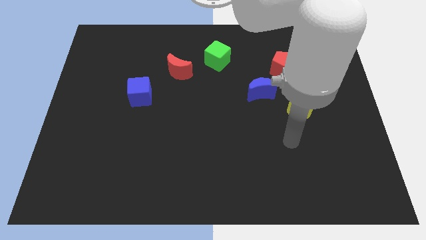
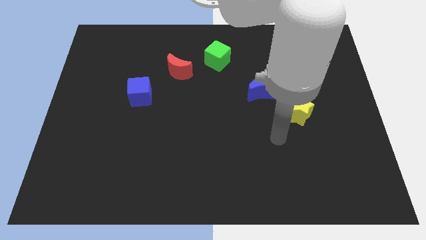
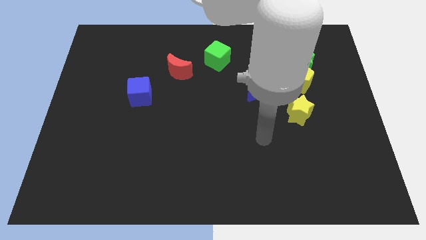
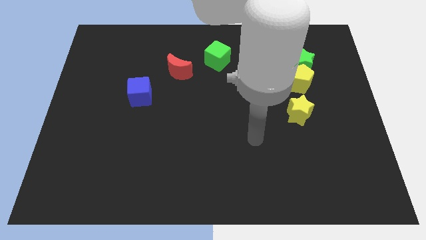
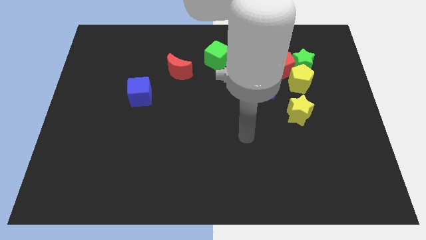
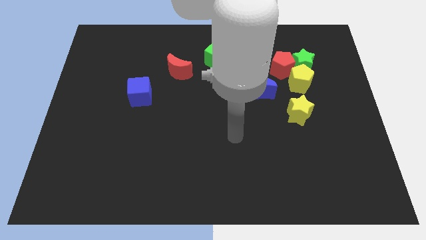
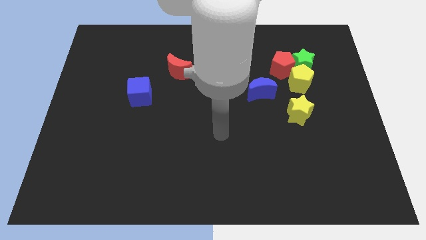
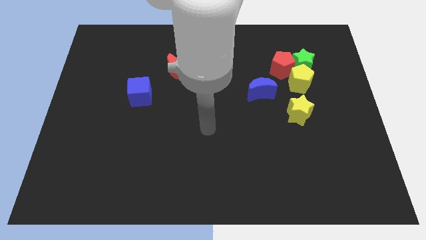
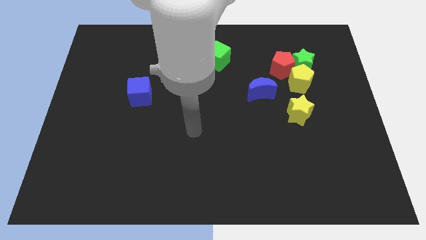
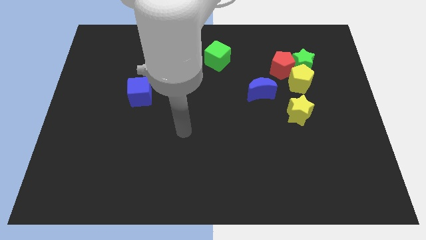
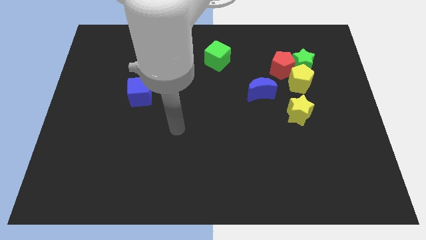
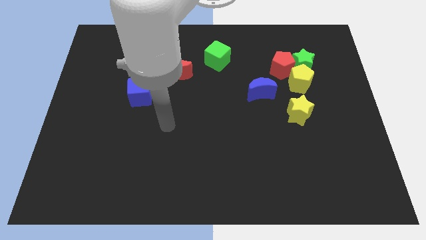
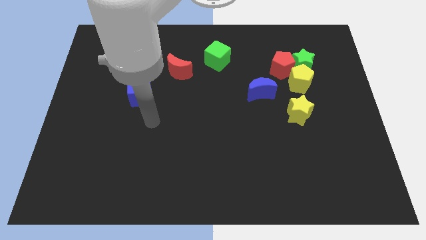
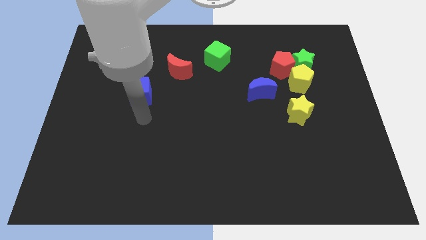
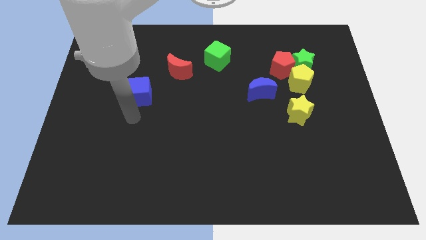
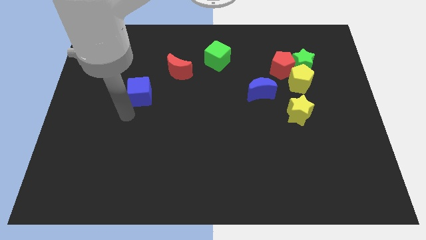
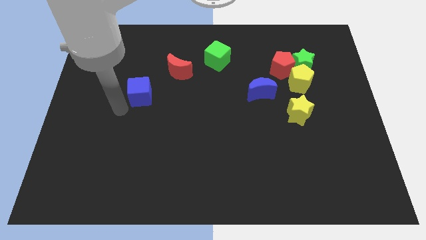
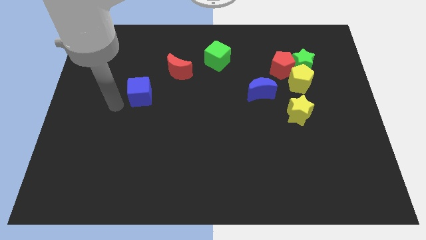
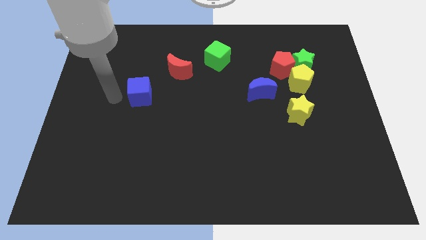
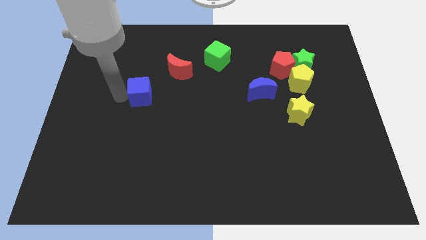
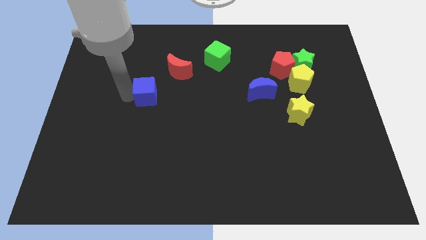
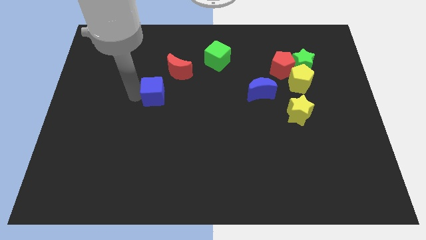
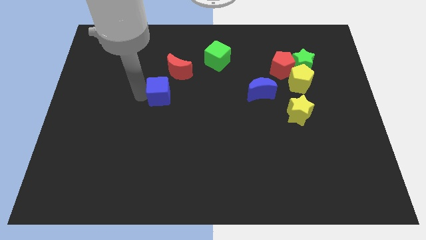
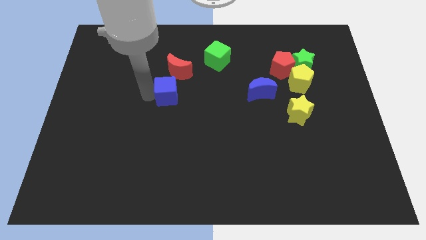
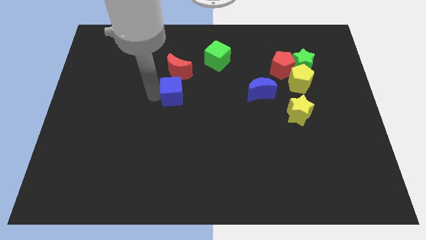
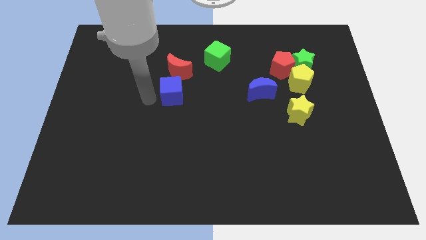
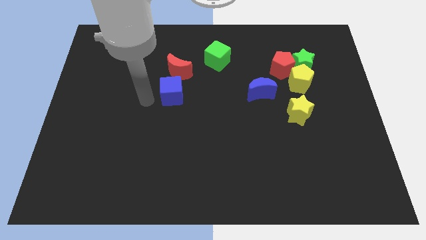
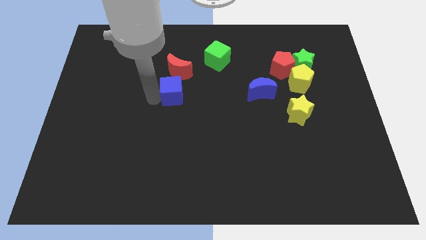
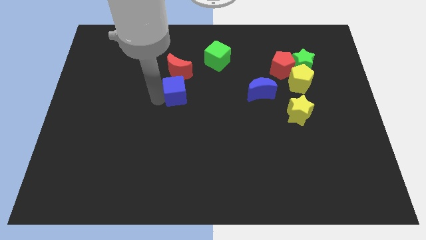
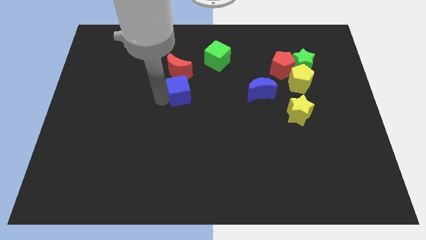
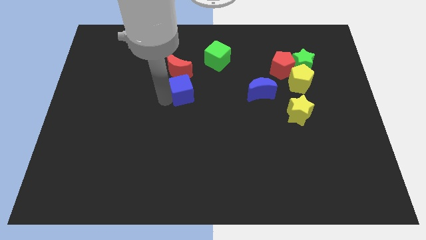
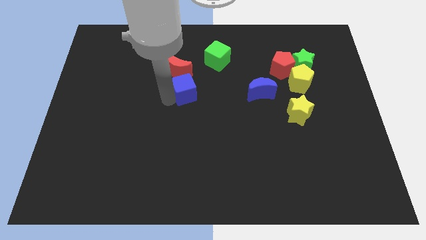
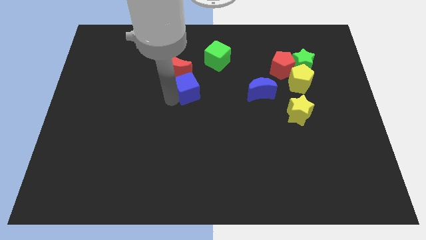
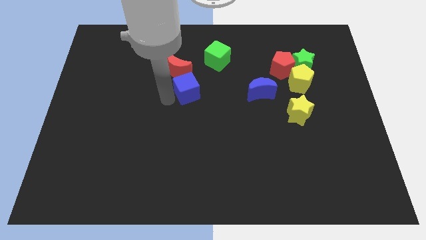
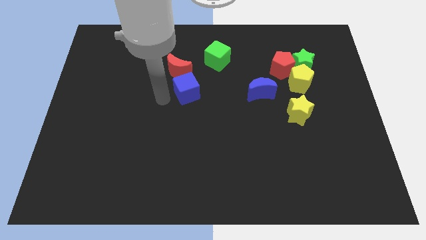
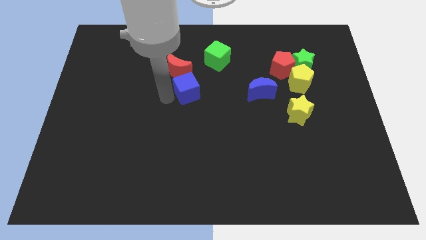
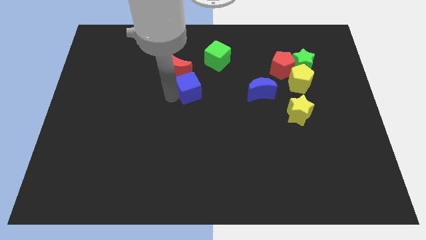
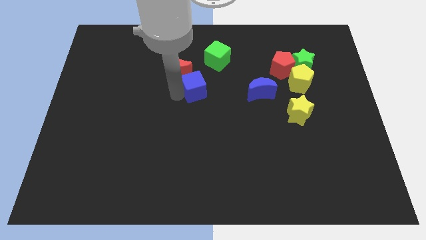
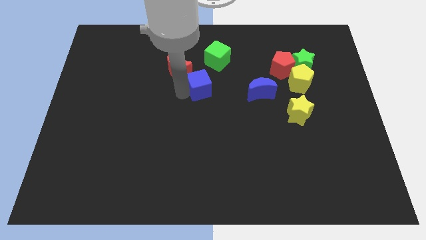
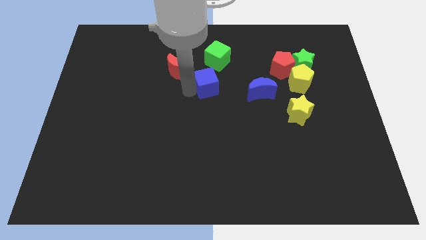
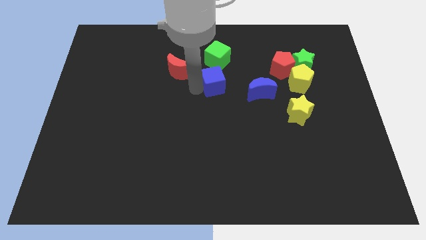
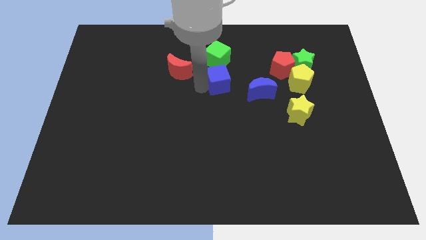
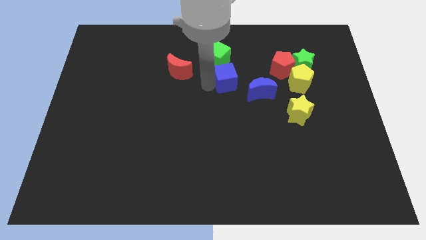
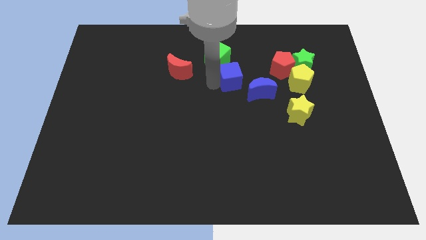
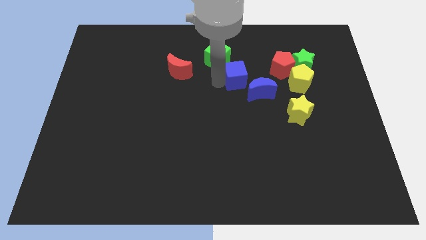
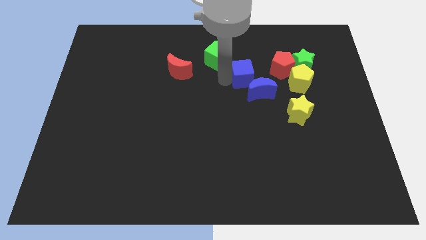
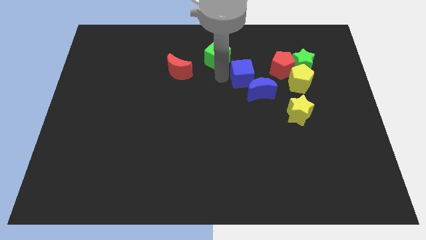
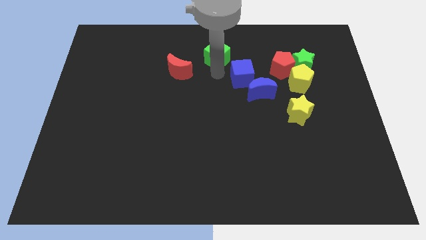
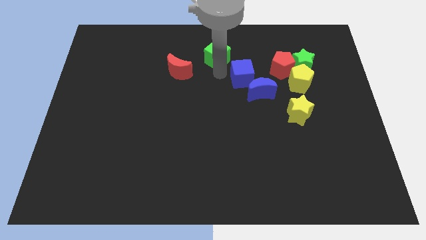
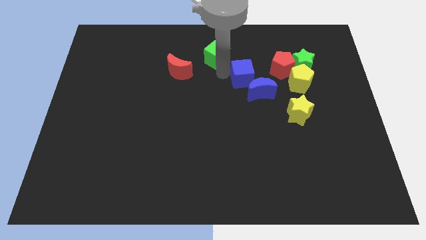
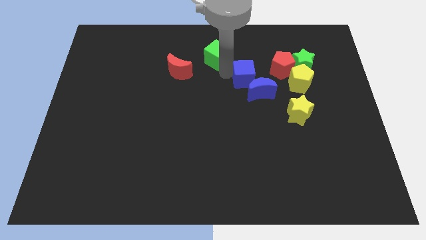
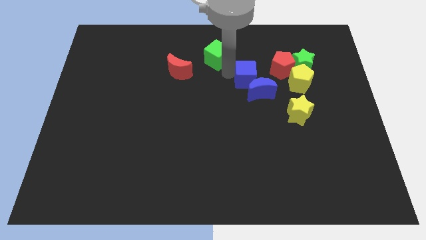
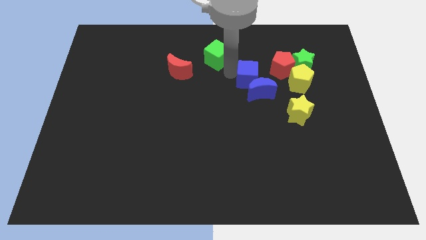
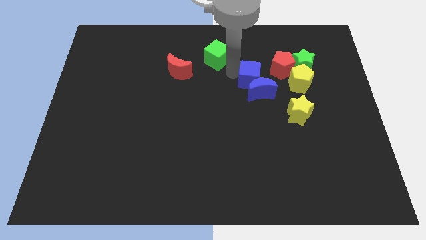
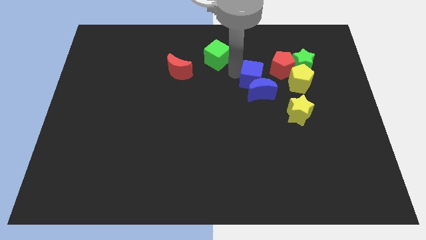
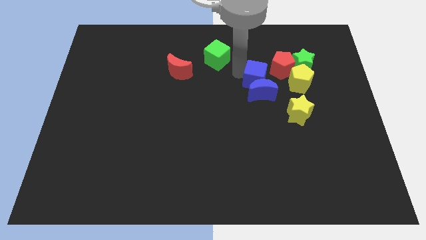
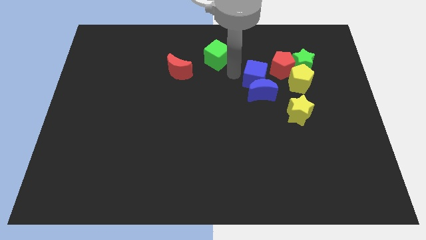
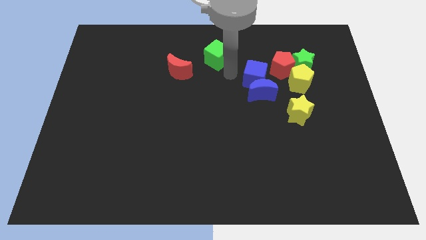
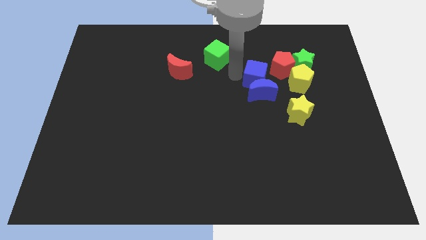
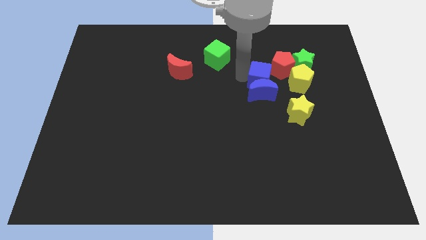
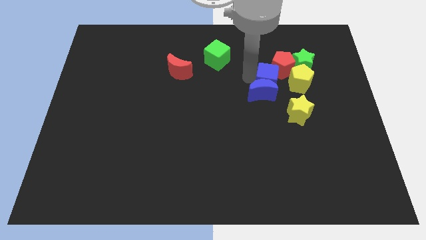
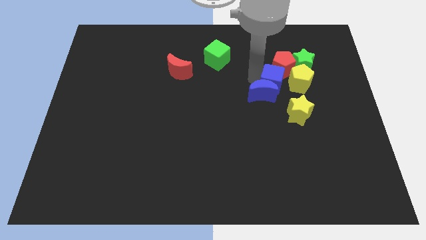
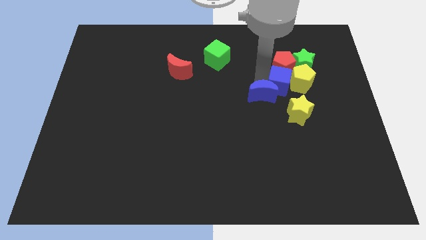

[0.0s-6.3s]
push the blue cube close to the yellow pentagon

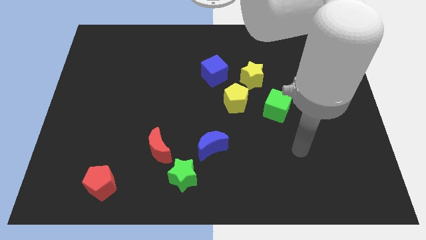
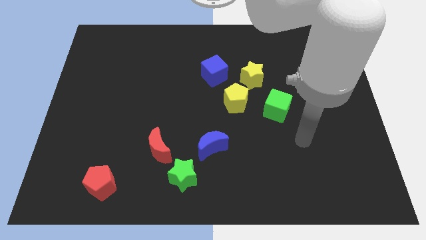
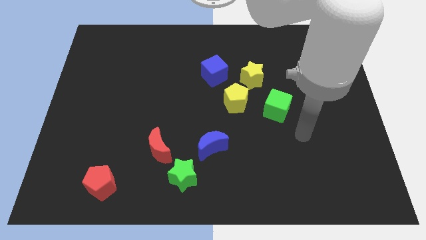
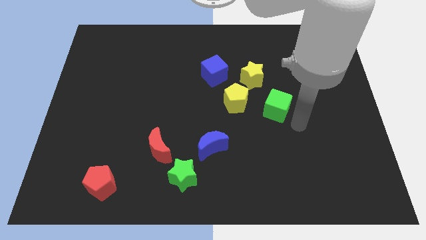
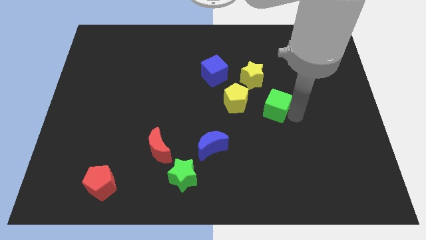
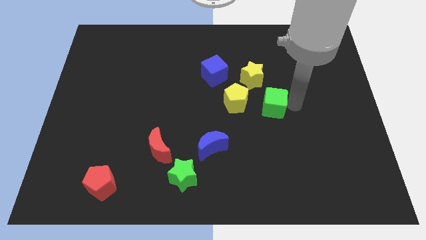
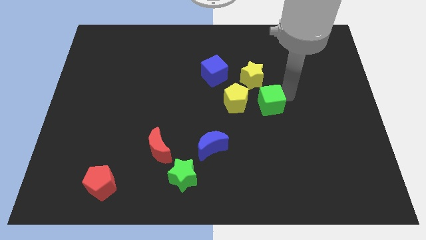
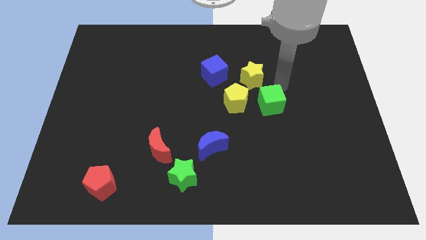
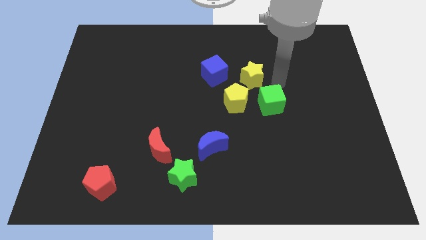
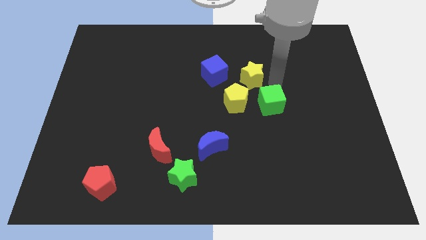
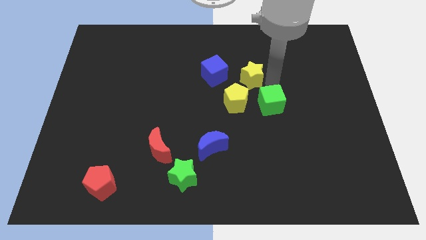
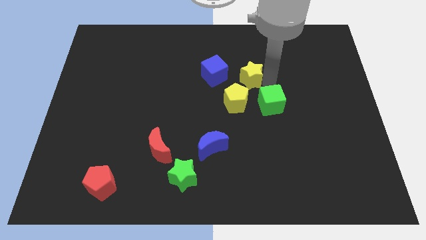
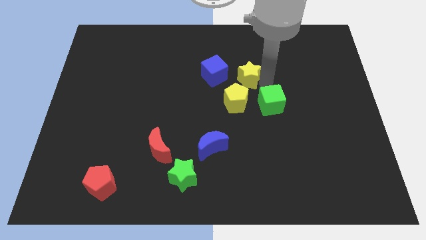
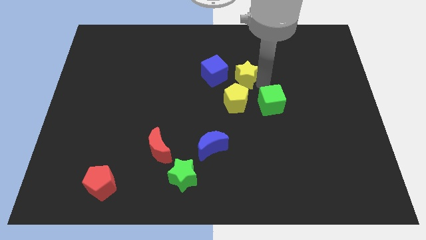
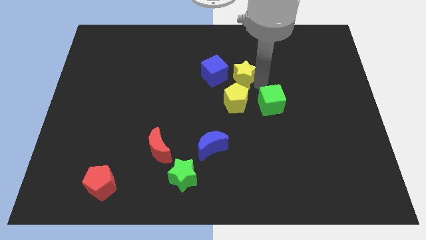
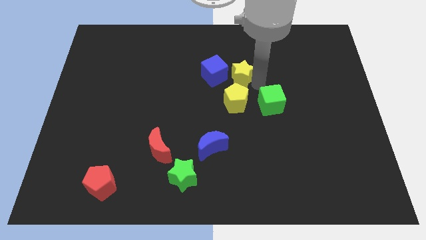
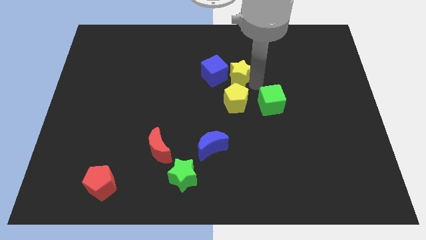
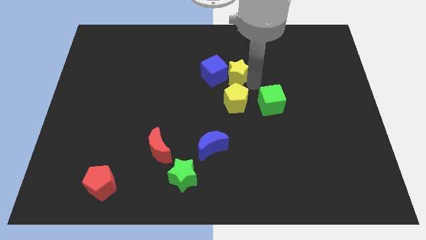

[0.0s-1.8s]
push the yellow star to the blue cube
